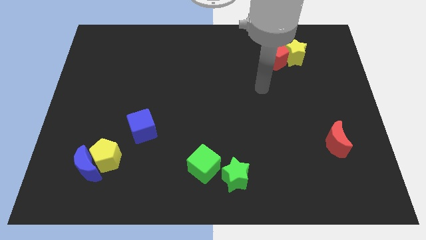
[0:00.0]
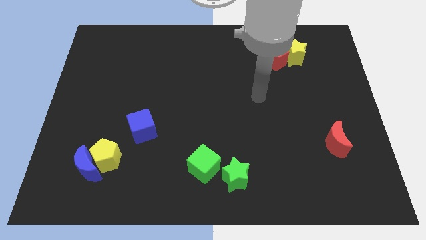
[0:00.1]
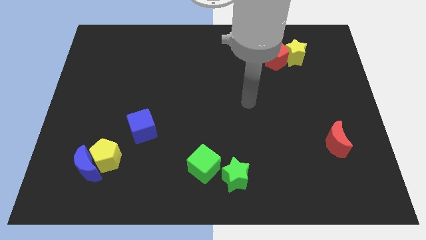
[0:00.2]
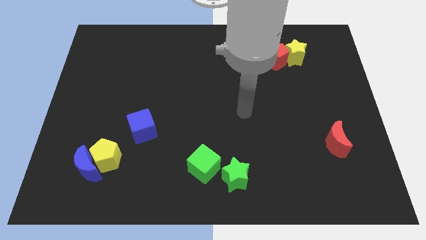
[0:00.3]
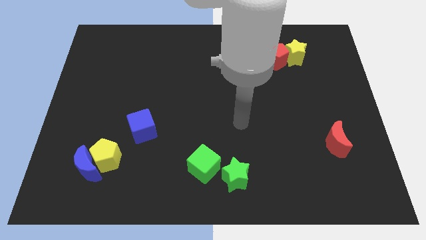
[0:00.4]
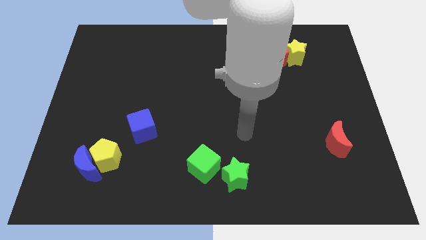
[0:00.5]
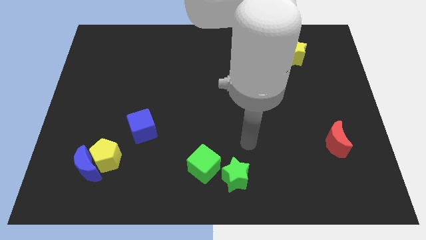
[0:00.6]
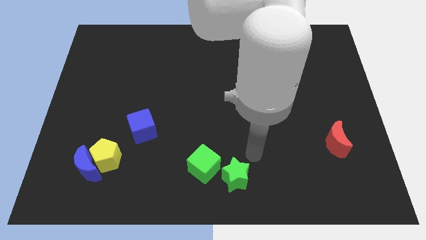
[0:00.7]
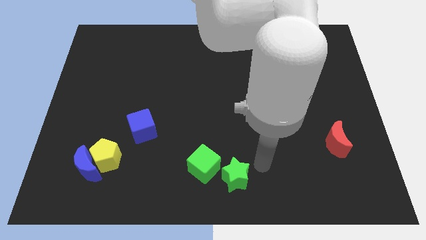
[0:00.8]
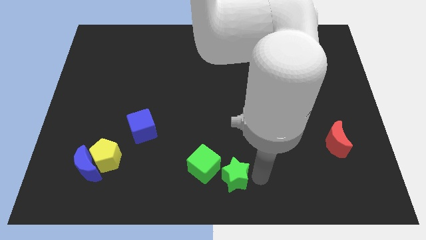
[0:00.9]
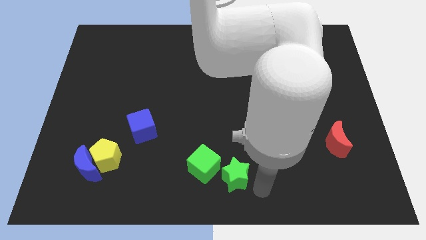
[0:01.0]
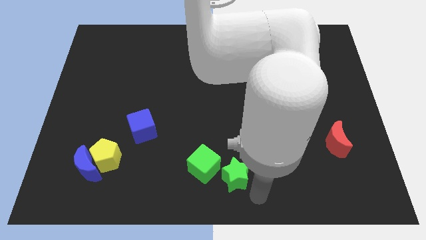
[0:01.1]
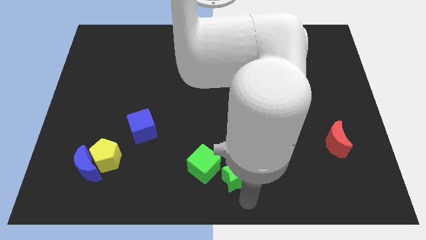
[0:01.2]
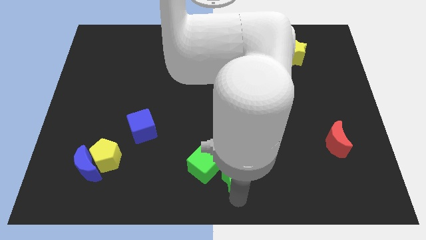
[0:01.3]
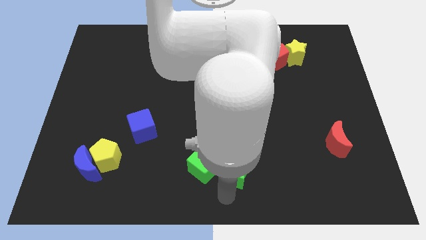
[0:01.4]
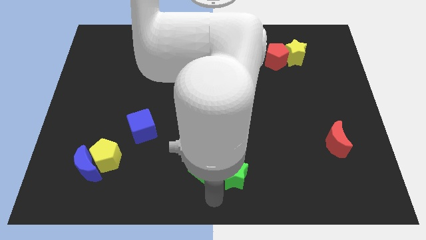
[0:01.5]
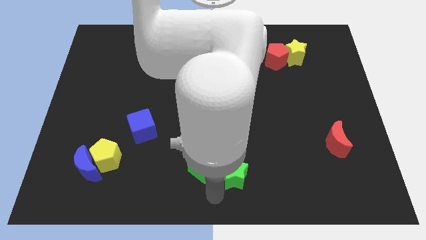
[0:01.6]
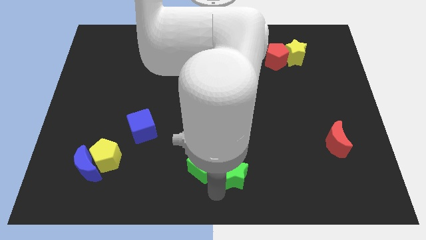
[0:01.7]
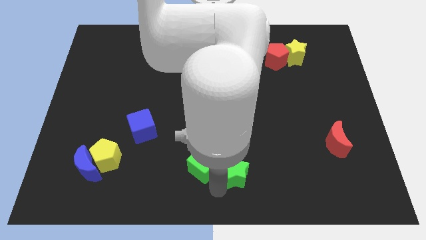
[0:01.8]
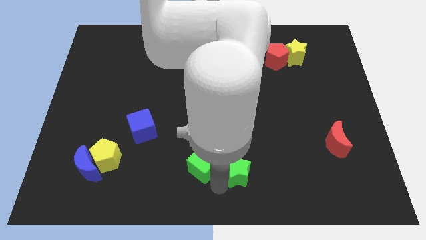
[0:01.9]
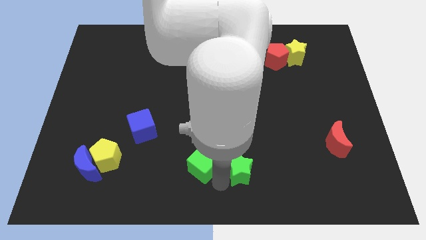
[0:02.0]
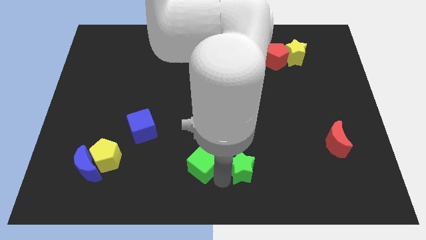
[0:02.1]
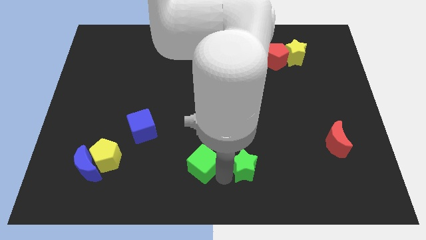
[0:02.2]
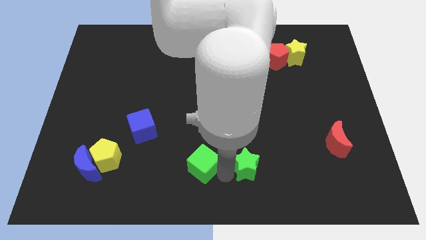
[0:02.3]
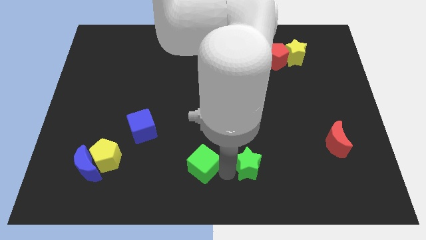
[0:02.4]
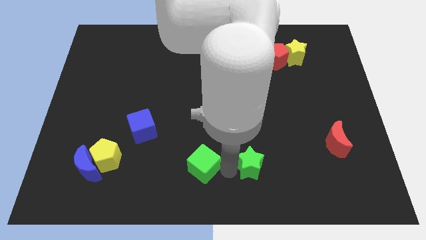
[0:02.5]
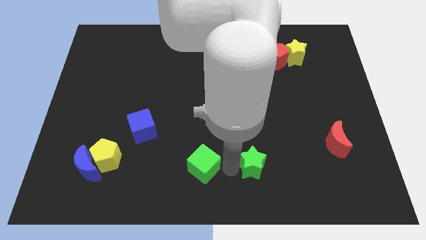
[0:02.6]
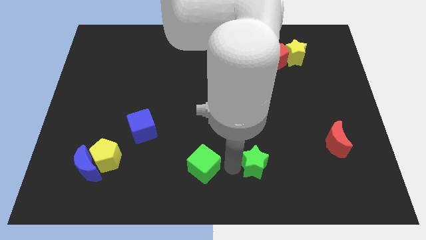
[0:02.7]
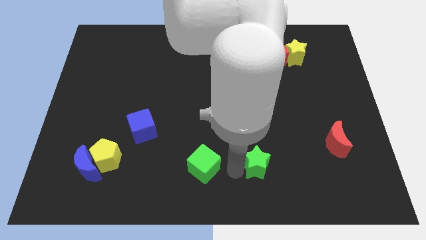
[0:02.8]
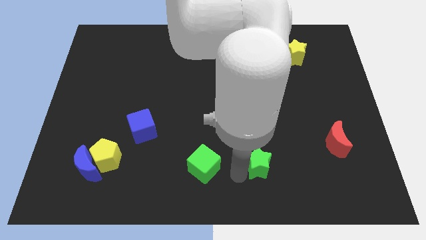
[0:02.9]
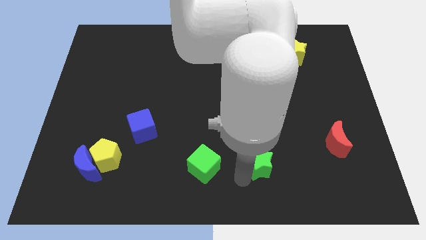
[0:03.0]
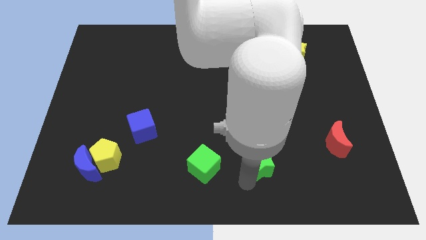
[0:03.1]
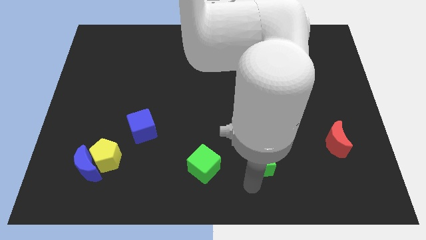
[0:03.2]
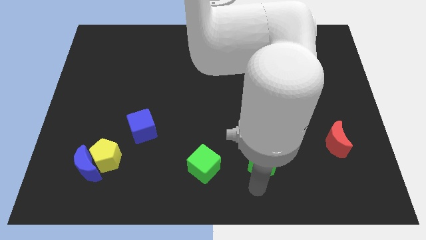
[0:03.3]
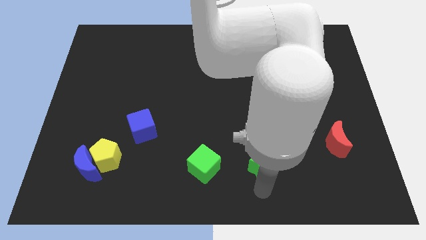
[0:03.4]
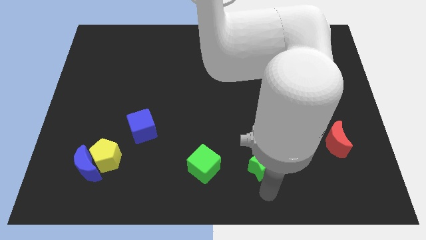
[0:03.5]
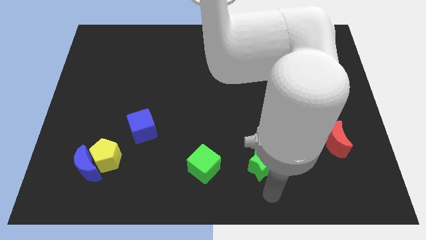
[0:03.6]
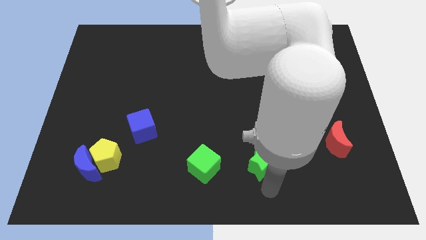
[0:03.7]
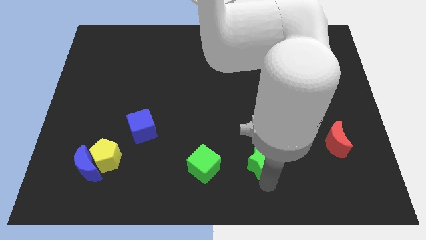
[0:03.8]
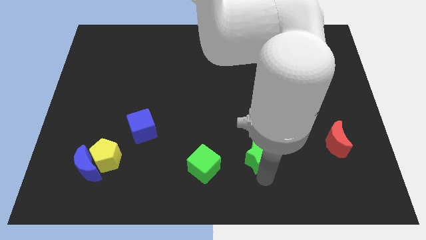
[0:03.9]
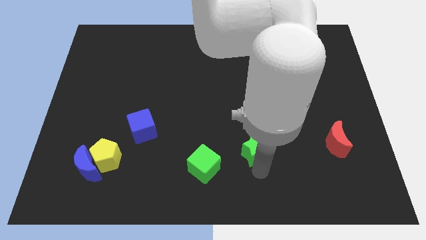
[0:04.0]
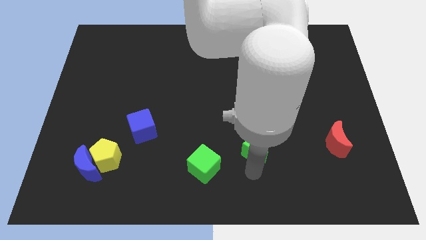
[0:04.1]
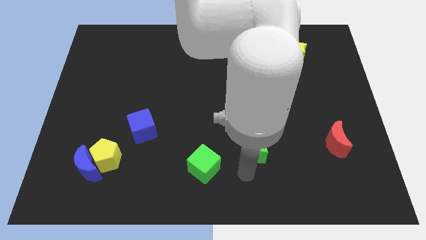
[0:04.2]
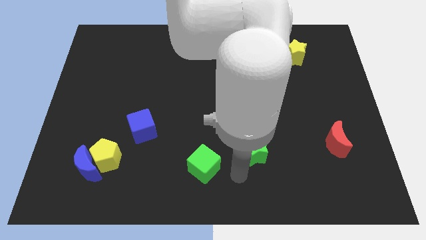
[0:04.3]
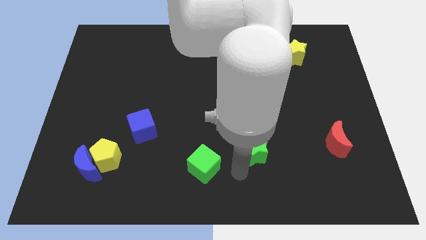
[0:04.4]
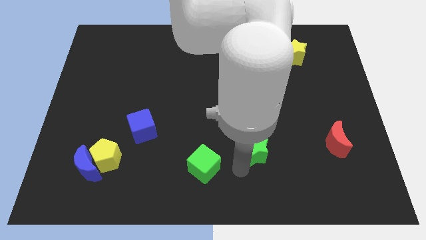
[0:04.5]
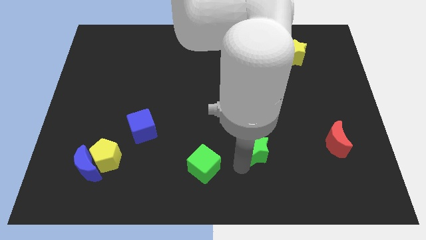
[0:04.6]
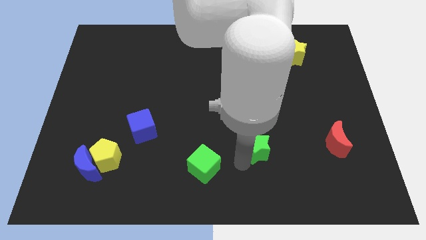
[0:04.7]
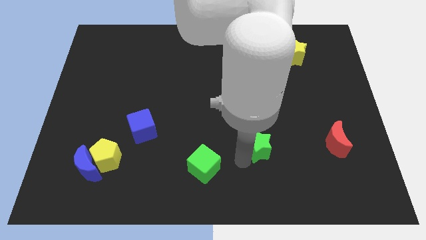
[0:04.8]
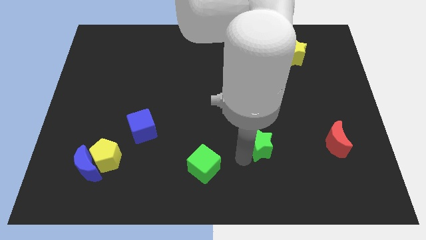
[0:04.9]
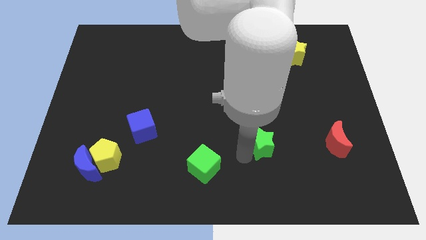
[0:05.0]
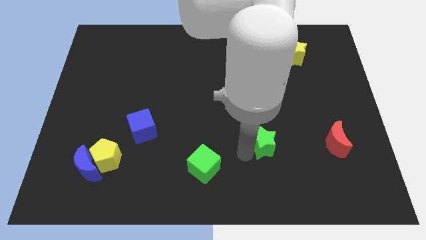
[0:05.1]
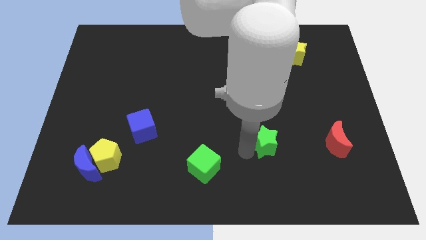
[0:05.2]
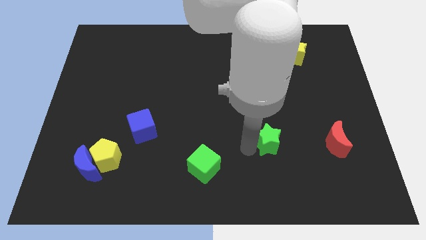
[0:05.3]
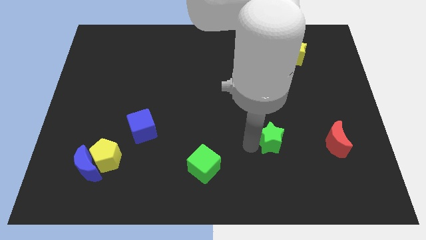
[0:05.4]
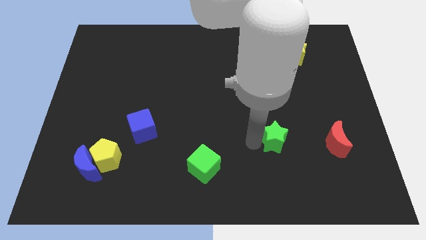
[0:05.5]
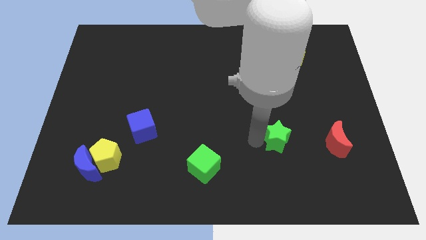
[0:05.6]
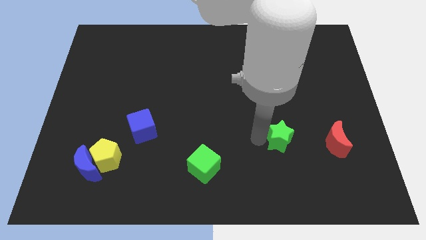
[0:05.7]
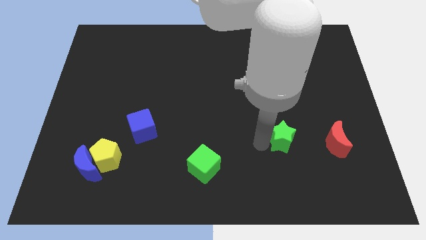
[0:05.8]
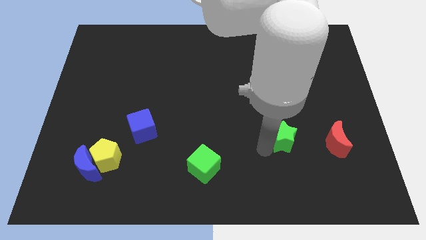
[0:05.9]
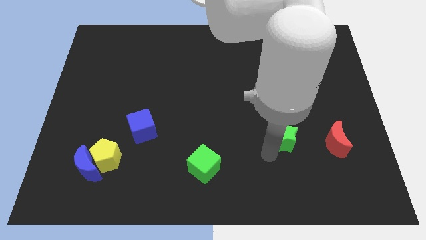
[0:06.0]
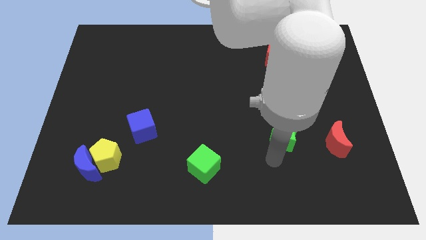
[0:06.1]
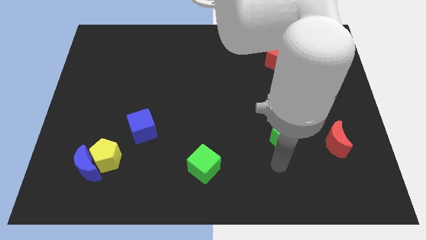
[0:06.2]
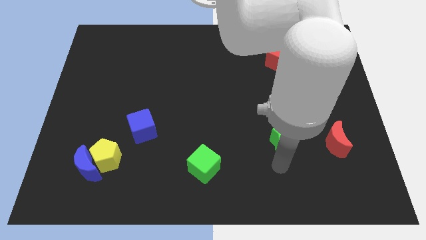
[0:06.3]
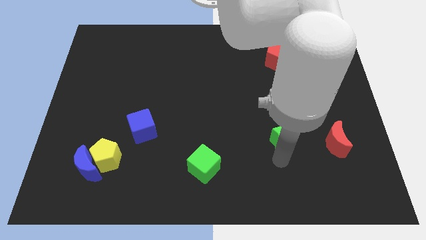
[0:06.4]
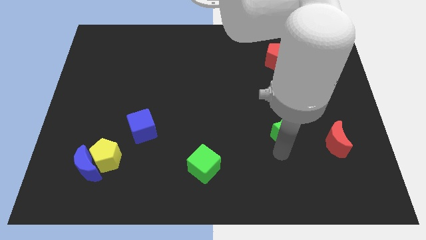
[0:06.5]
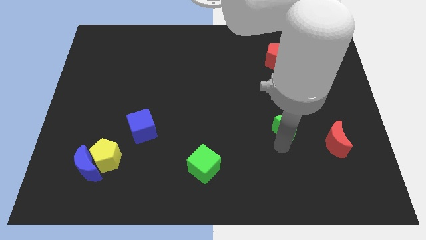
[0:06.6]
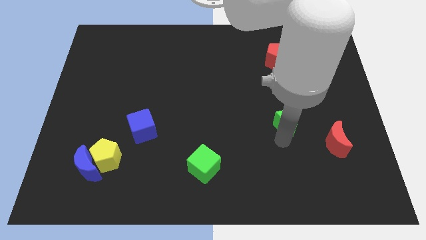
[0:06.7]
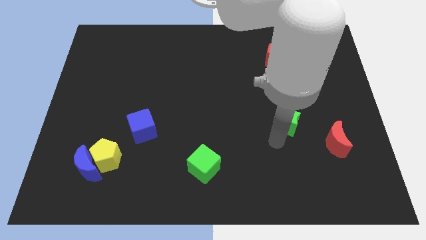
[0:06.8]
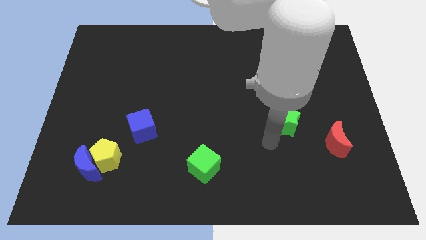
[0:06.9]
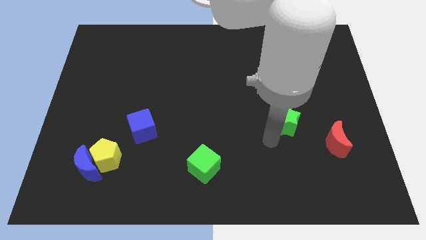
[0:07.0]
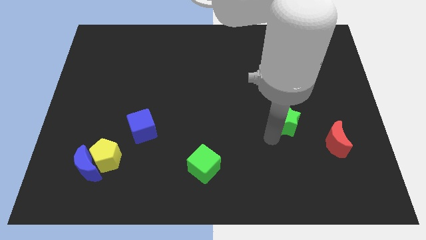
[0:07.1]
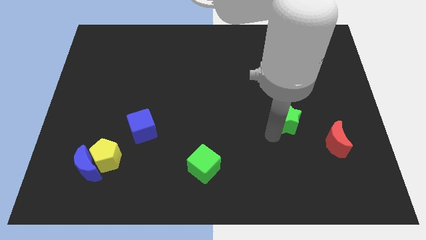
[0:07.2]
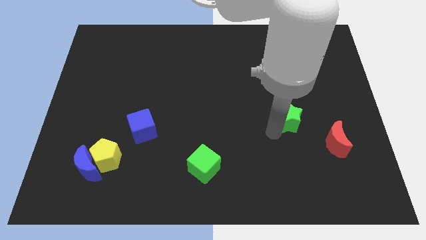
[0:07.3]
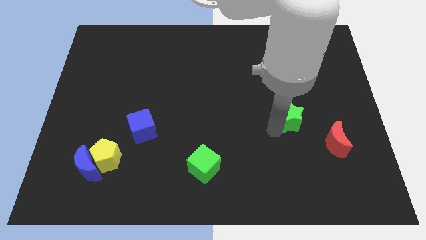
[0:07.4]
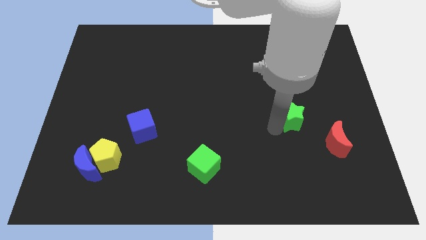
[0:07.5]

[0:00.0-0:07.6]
slide the green star upwards and right

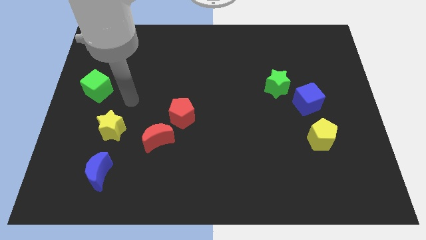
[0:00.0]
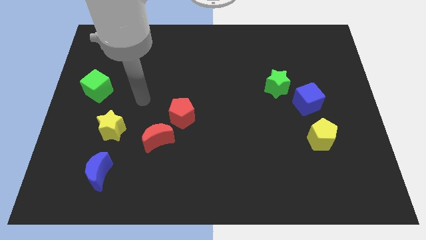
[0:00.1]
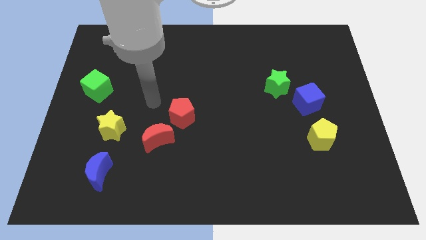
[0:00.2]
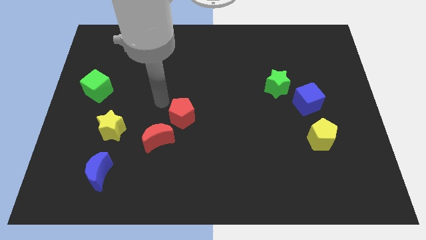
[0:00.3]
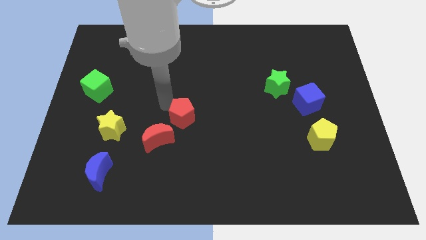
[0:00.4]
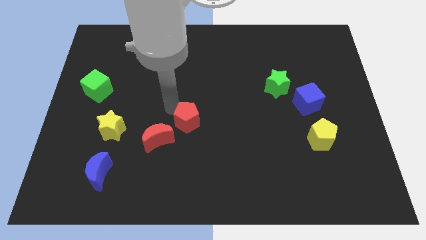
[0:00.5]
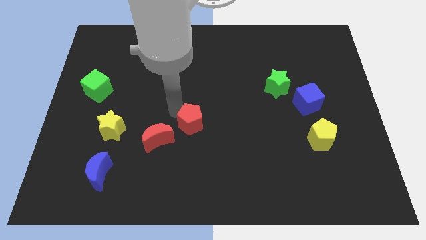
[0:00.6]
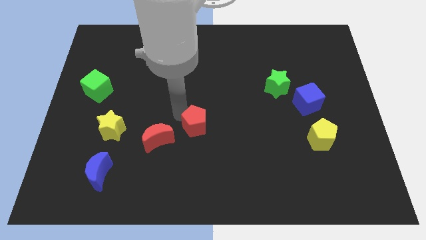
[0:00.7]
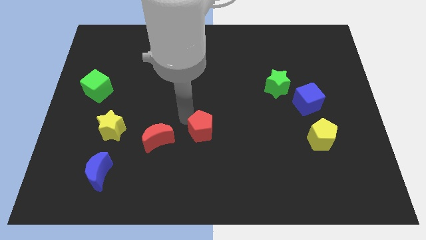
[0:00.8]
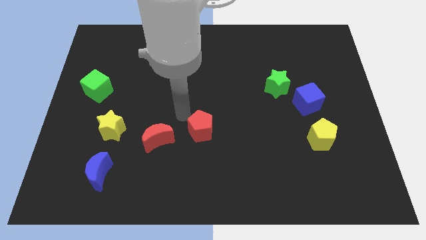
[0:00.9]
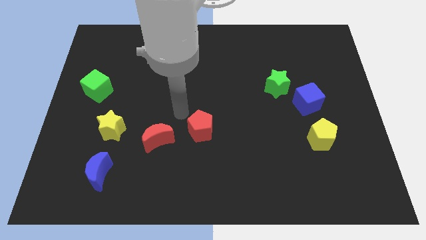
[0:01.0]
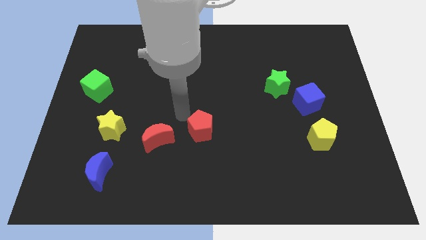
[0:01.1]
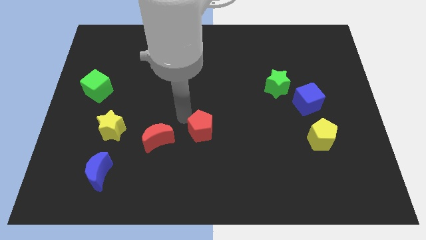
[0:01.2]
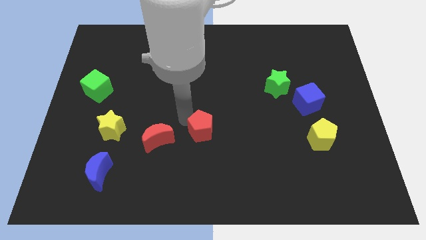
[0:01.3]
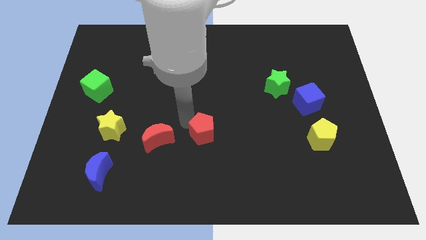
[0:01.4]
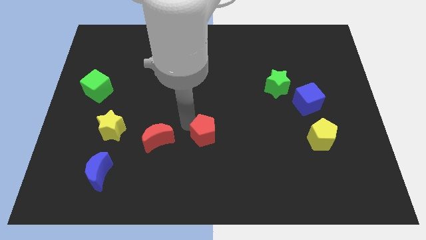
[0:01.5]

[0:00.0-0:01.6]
push the red pentagon somewhat downwards and right diagonally
